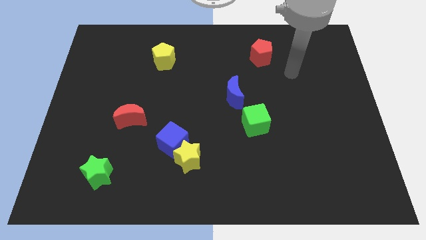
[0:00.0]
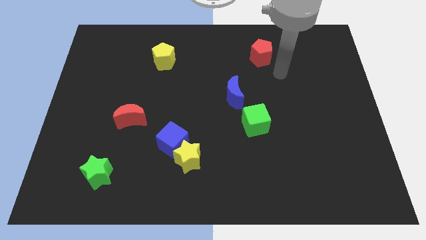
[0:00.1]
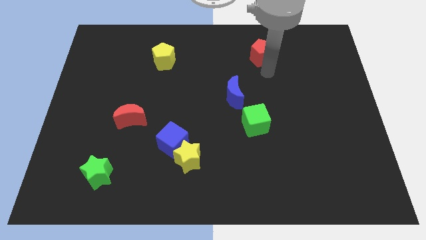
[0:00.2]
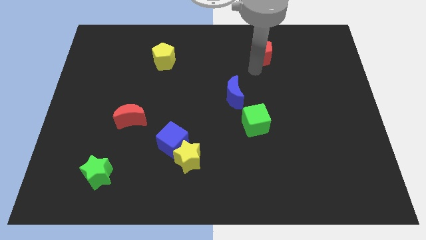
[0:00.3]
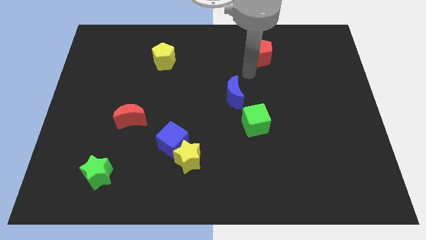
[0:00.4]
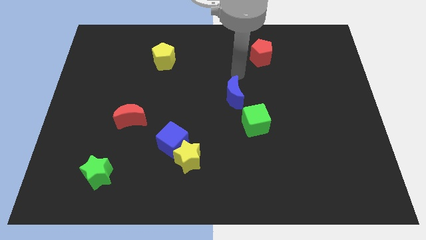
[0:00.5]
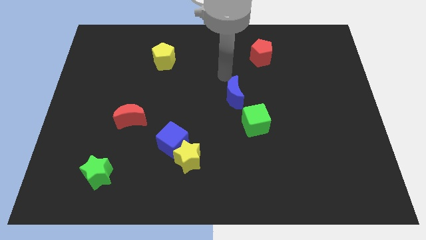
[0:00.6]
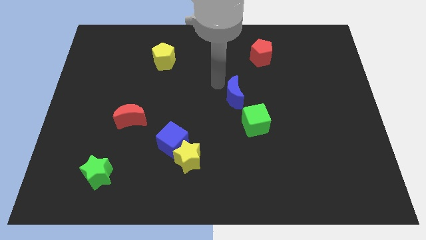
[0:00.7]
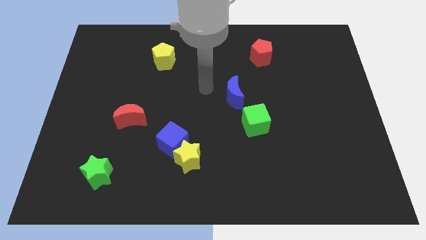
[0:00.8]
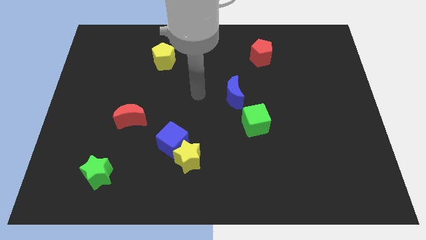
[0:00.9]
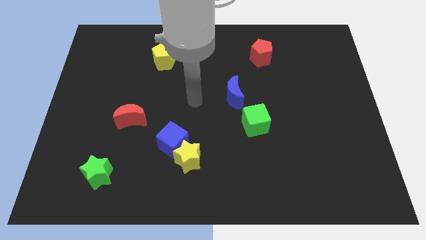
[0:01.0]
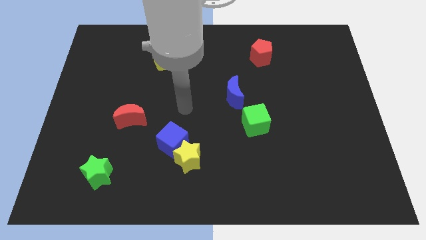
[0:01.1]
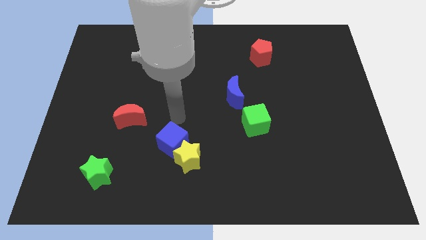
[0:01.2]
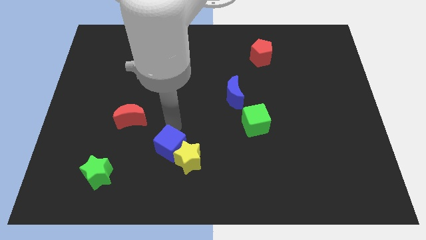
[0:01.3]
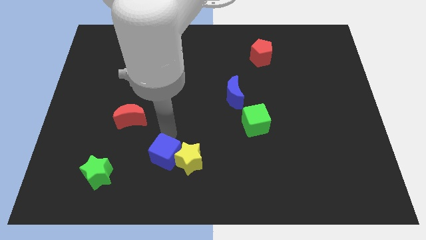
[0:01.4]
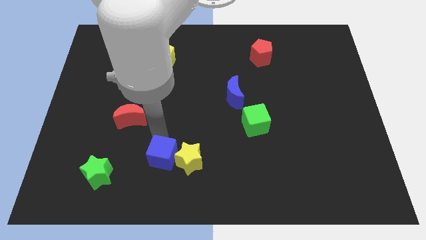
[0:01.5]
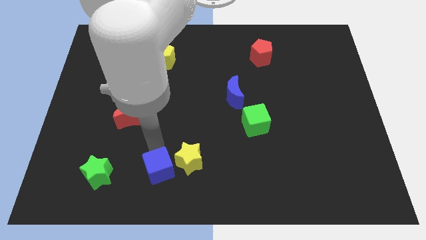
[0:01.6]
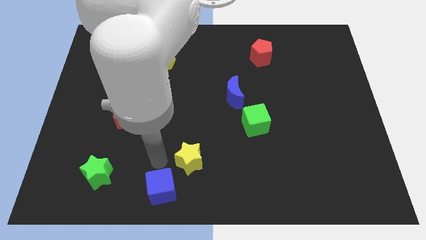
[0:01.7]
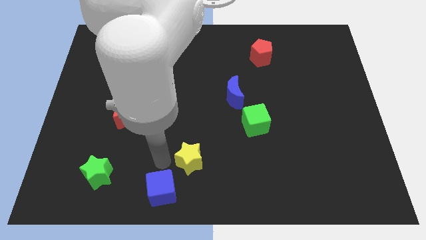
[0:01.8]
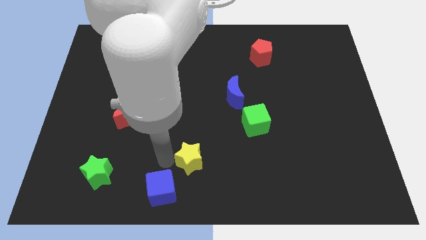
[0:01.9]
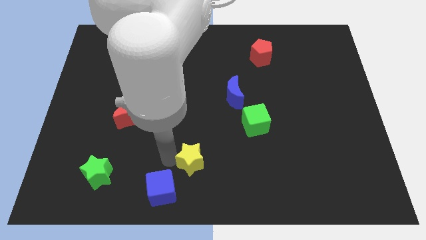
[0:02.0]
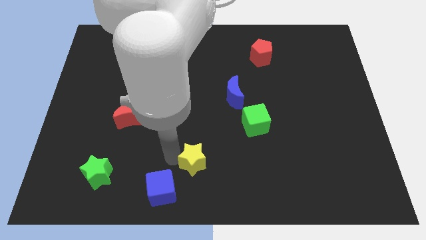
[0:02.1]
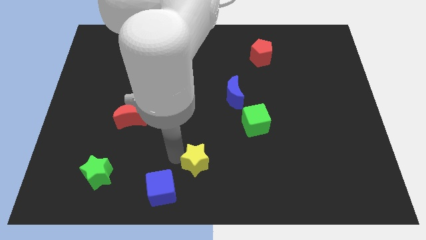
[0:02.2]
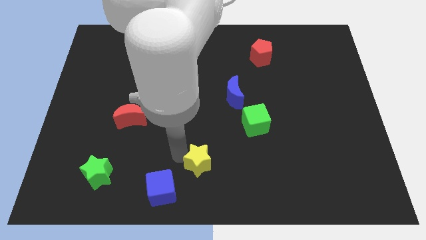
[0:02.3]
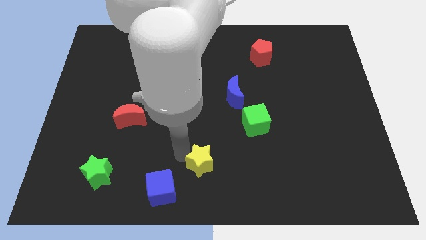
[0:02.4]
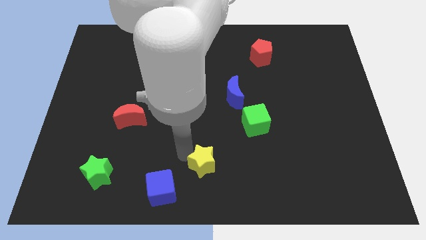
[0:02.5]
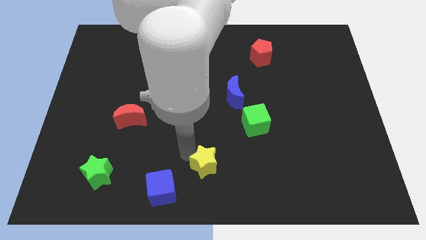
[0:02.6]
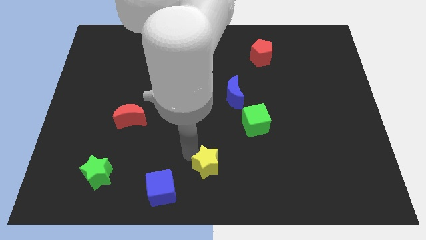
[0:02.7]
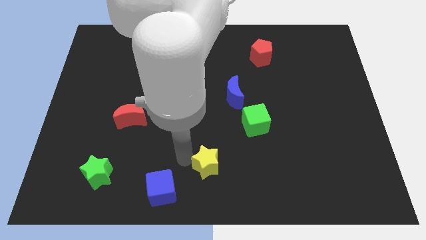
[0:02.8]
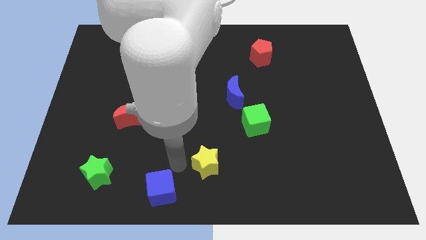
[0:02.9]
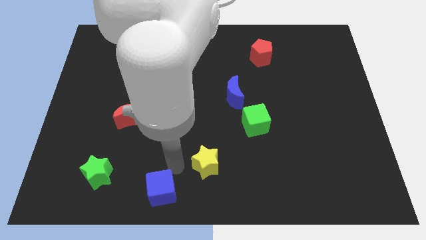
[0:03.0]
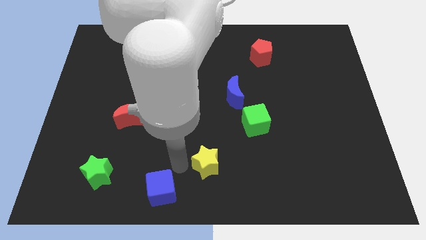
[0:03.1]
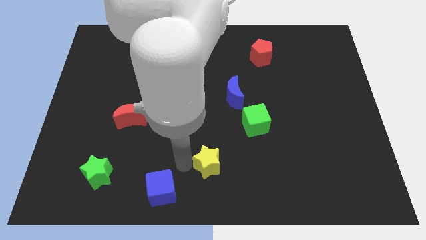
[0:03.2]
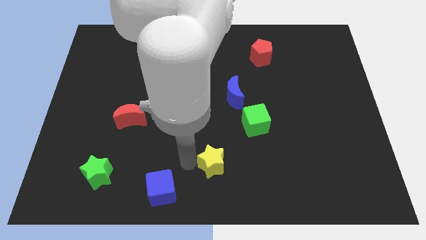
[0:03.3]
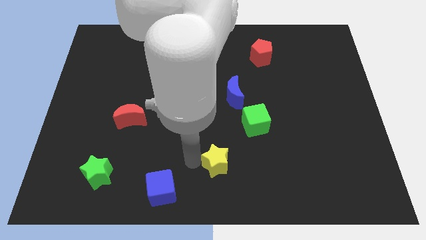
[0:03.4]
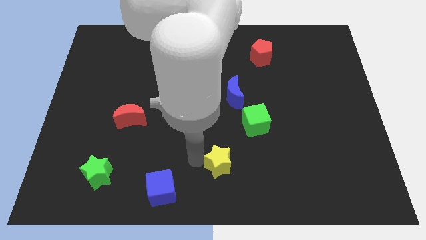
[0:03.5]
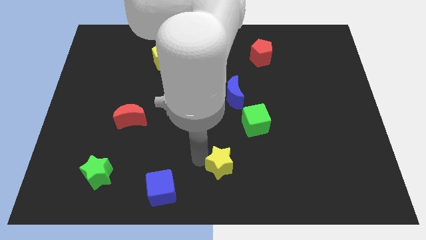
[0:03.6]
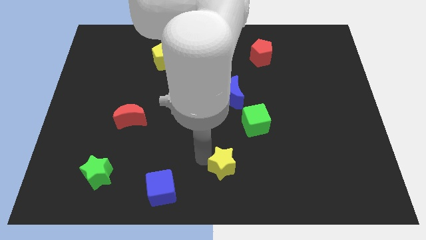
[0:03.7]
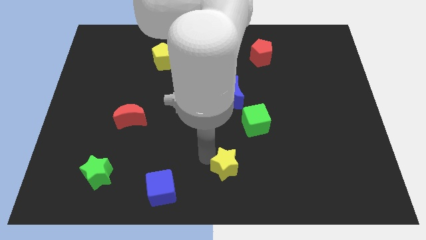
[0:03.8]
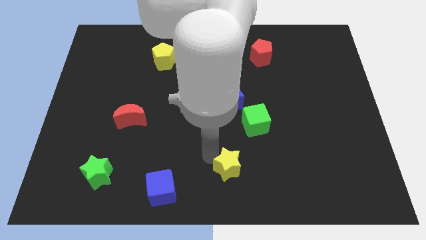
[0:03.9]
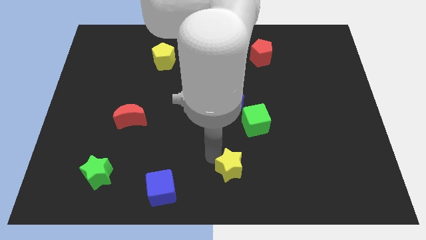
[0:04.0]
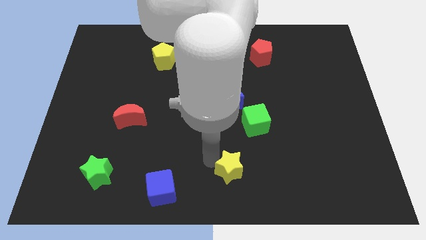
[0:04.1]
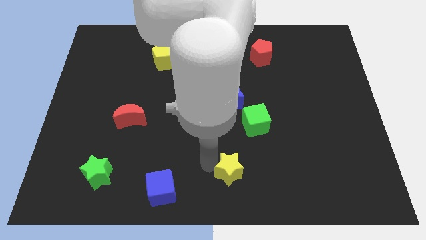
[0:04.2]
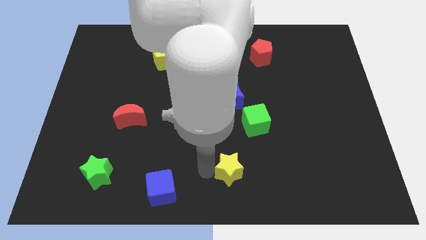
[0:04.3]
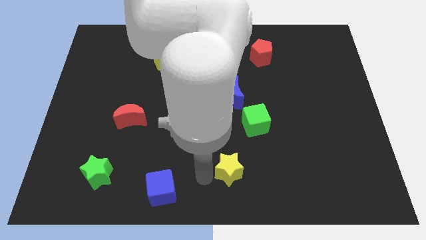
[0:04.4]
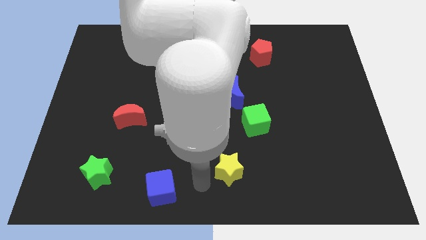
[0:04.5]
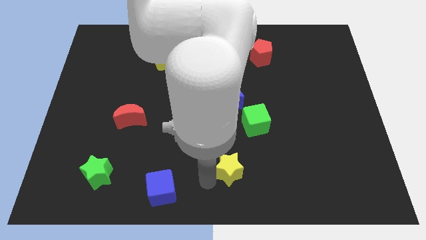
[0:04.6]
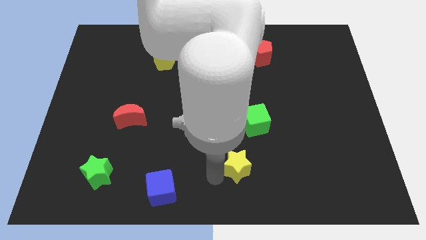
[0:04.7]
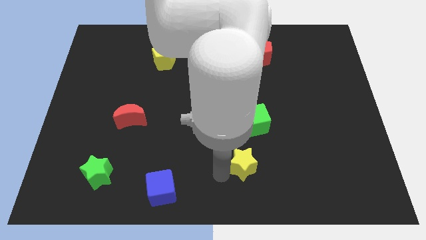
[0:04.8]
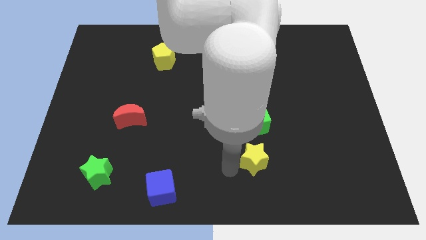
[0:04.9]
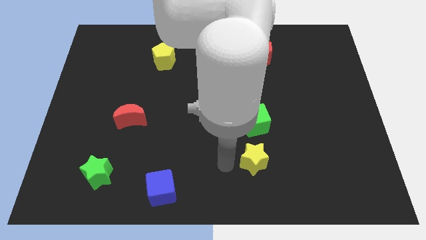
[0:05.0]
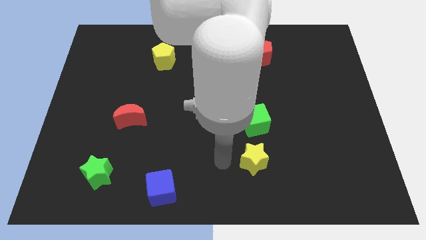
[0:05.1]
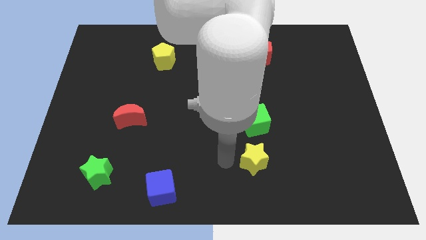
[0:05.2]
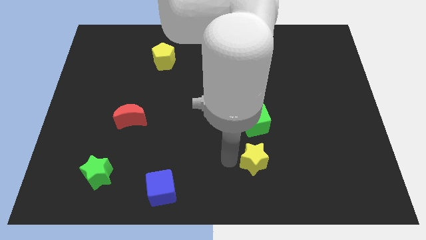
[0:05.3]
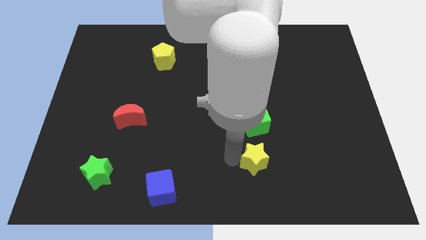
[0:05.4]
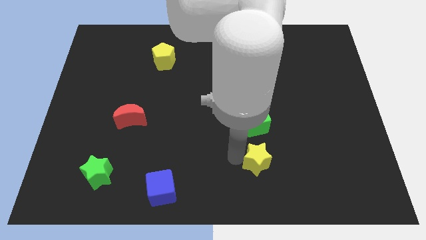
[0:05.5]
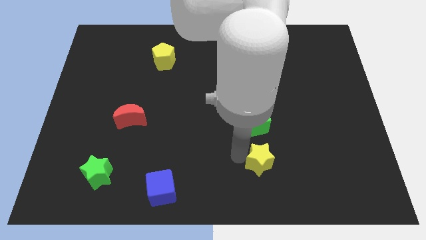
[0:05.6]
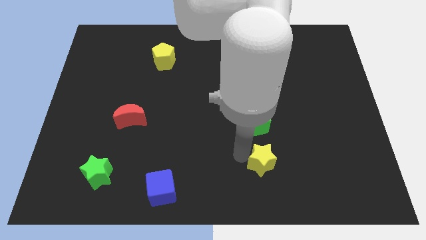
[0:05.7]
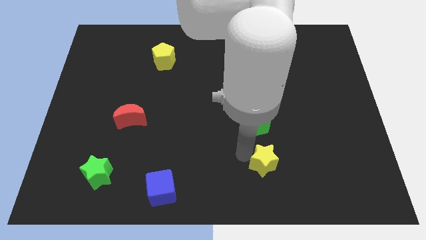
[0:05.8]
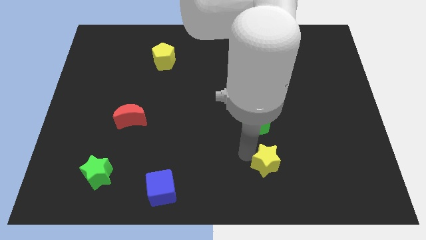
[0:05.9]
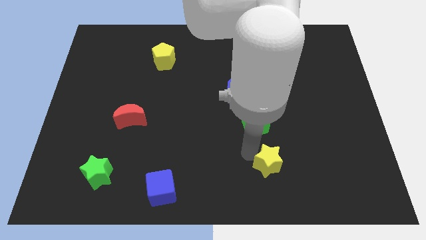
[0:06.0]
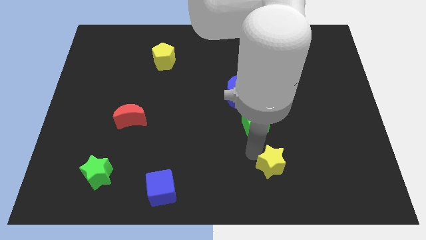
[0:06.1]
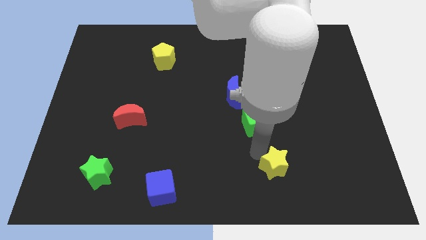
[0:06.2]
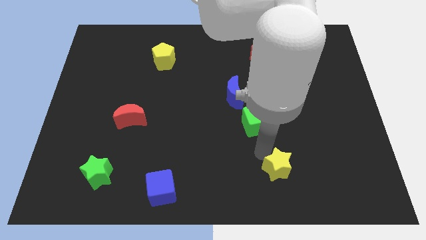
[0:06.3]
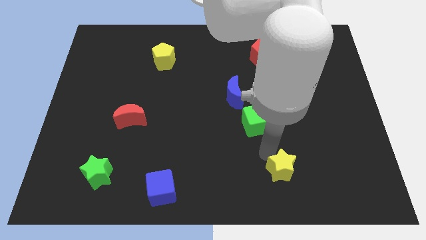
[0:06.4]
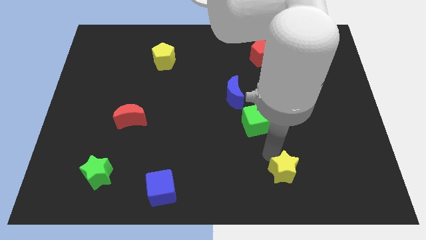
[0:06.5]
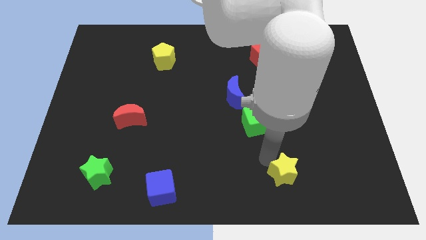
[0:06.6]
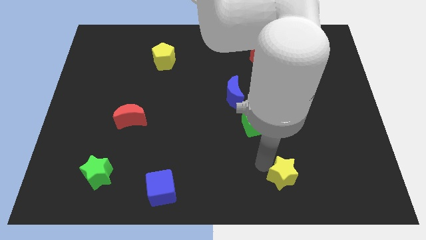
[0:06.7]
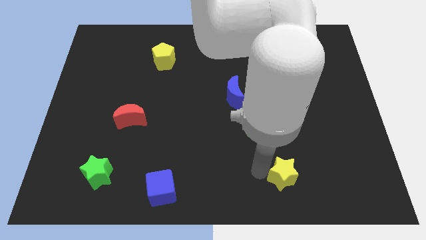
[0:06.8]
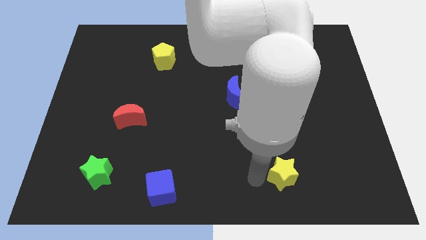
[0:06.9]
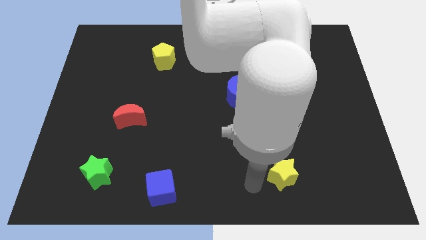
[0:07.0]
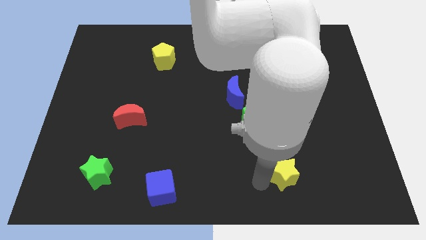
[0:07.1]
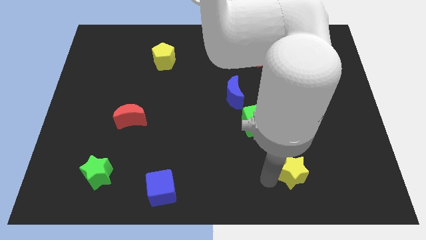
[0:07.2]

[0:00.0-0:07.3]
push the yellow star to the right

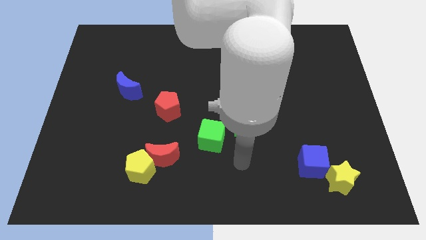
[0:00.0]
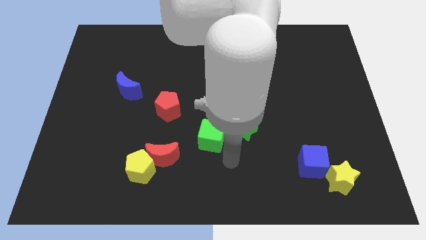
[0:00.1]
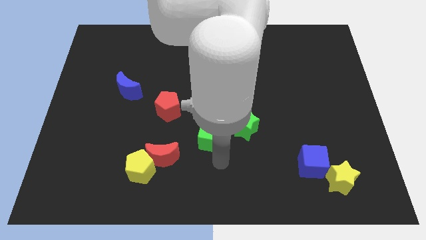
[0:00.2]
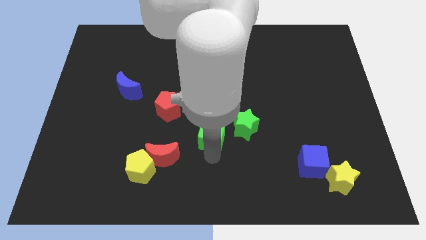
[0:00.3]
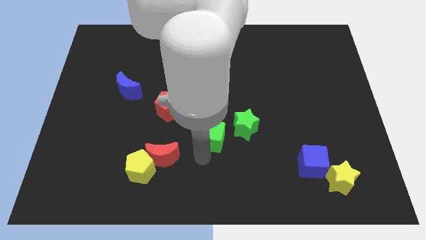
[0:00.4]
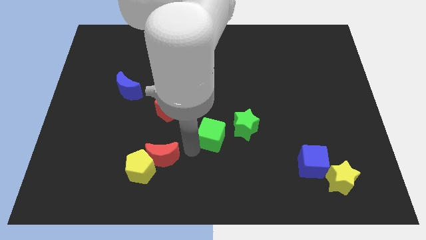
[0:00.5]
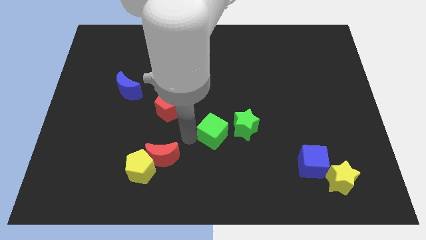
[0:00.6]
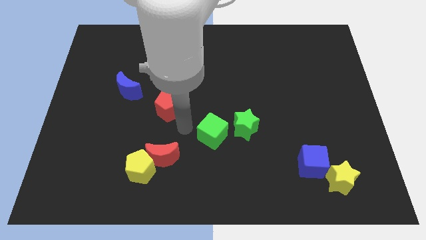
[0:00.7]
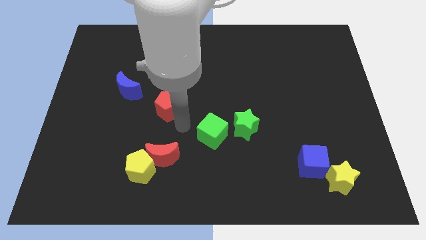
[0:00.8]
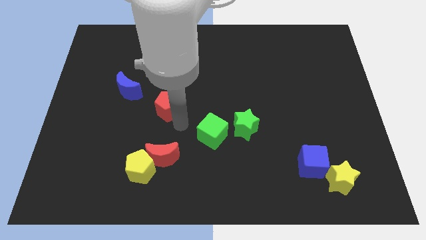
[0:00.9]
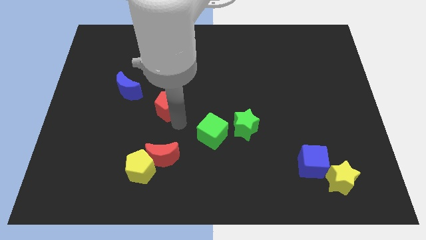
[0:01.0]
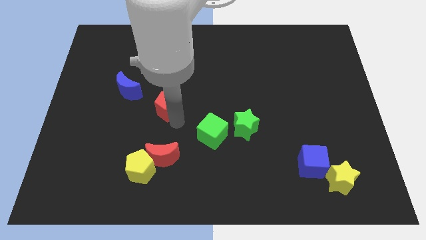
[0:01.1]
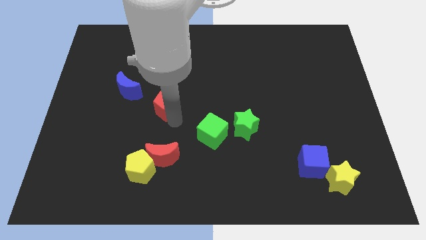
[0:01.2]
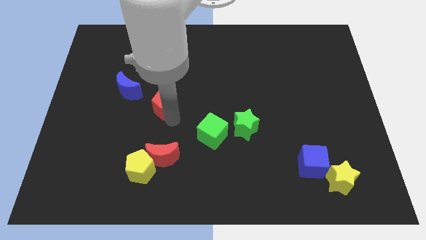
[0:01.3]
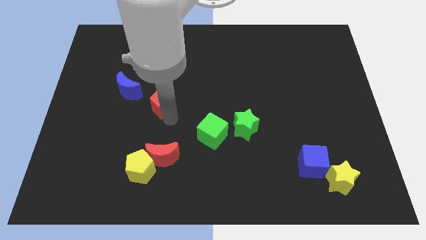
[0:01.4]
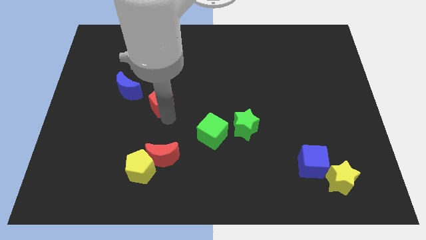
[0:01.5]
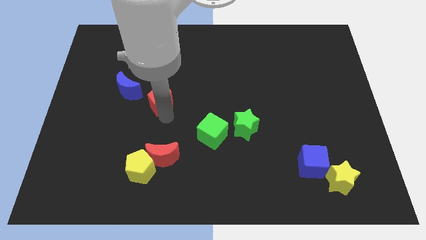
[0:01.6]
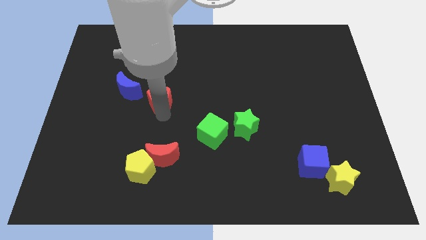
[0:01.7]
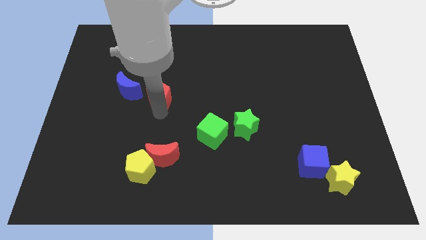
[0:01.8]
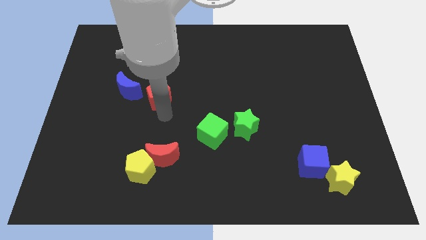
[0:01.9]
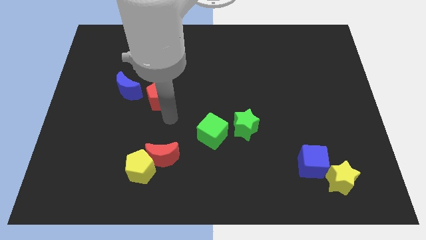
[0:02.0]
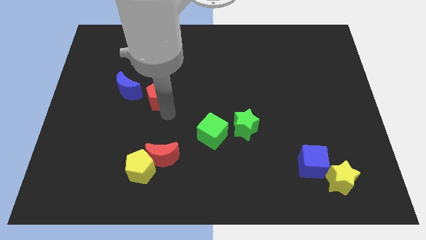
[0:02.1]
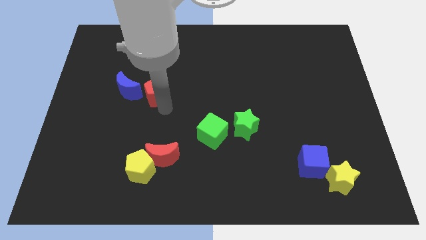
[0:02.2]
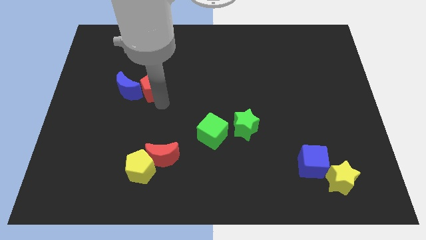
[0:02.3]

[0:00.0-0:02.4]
slightly move the red pentagon diagonally upwards and left
